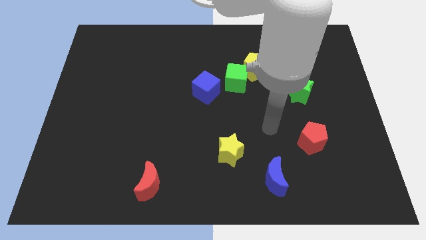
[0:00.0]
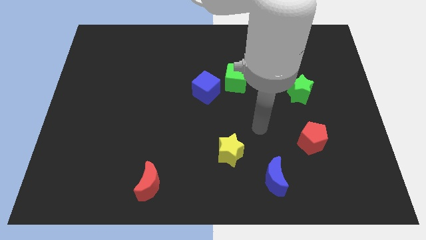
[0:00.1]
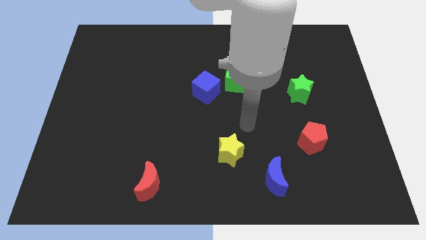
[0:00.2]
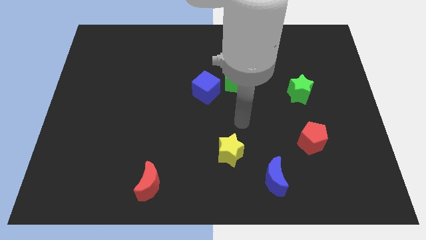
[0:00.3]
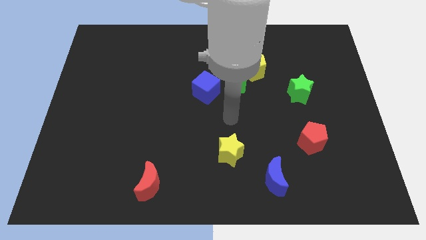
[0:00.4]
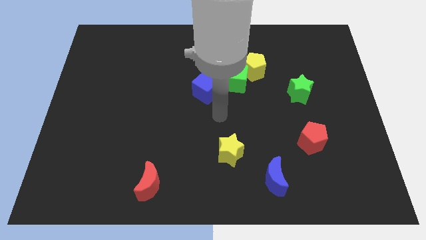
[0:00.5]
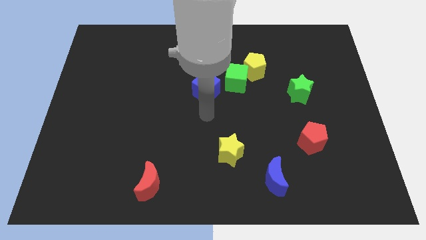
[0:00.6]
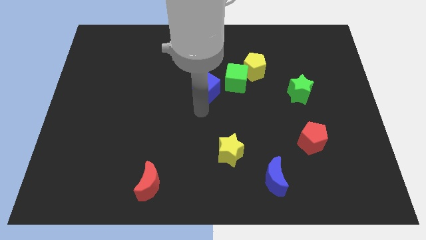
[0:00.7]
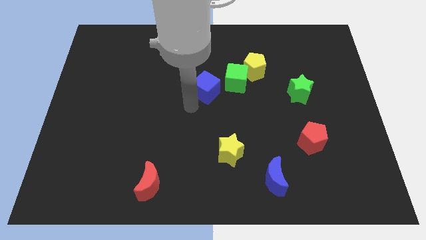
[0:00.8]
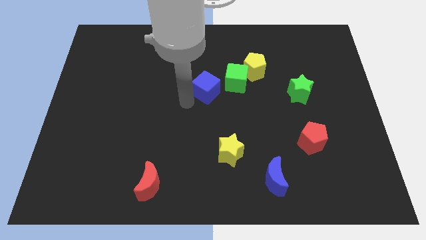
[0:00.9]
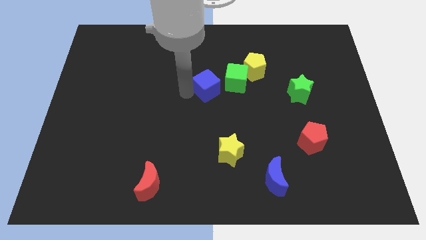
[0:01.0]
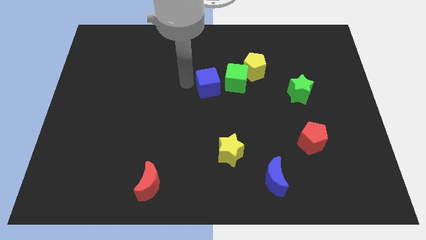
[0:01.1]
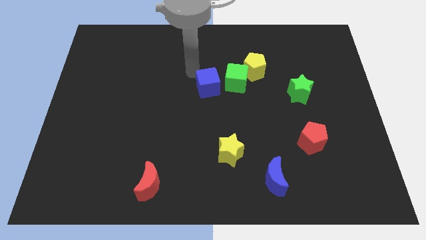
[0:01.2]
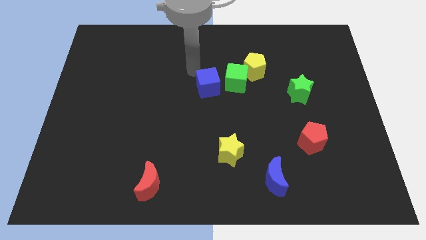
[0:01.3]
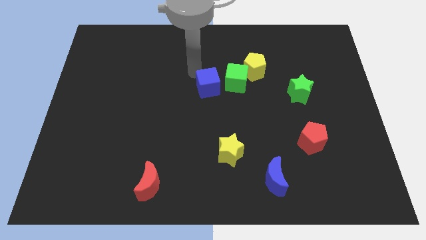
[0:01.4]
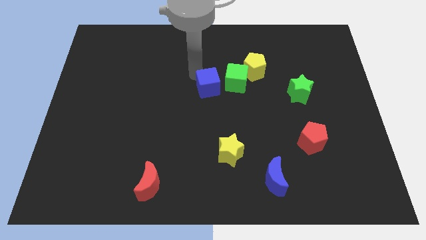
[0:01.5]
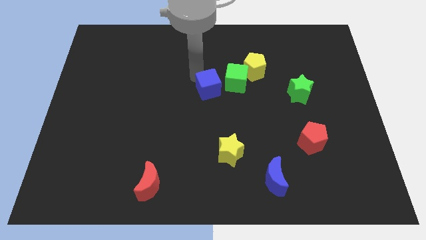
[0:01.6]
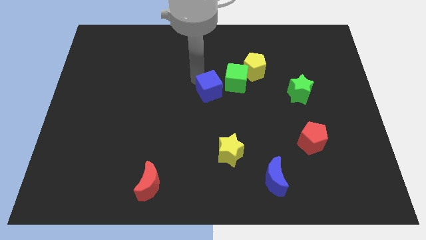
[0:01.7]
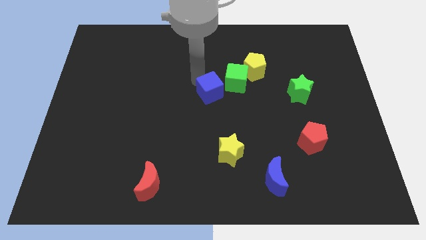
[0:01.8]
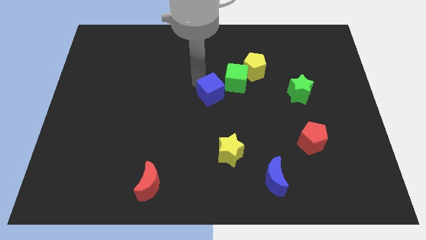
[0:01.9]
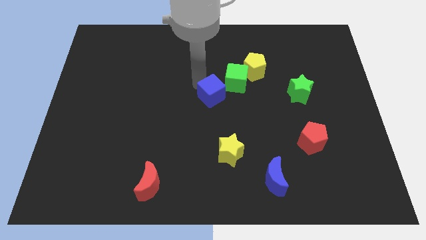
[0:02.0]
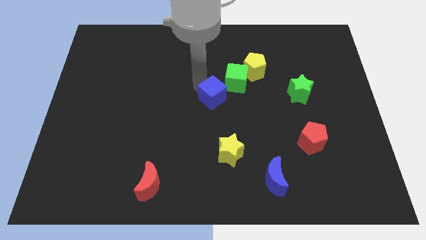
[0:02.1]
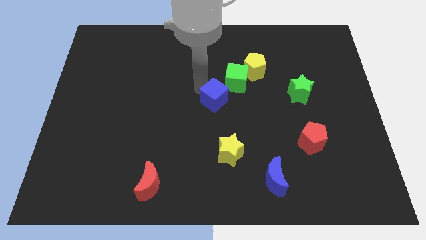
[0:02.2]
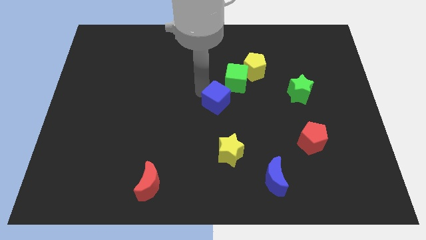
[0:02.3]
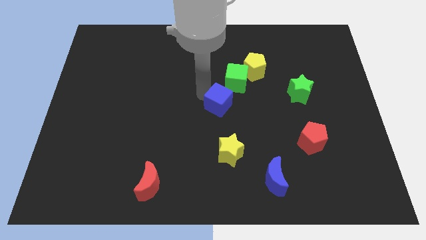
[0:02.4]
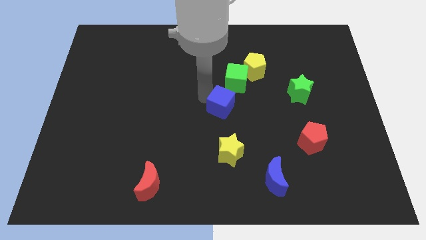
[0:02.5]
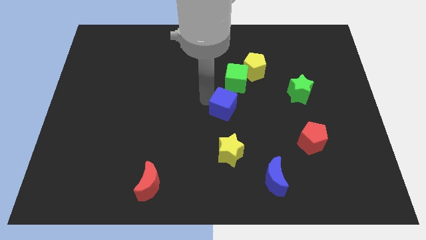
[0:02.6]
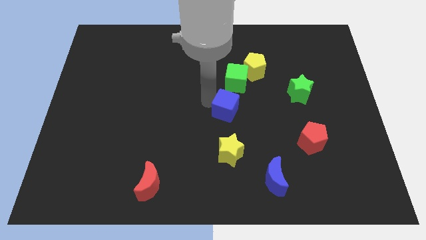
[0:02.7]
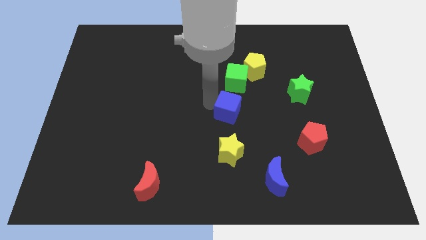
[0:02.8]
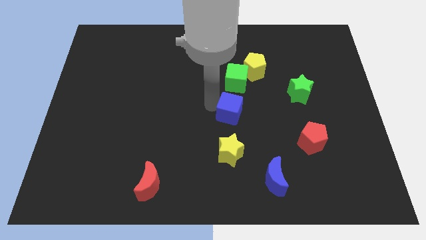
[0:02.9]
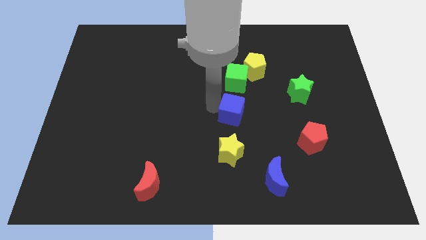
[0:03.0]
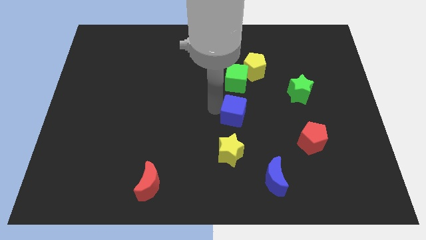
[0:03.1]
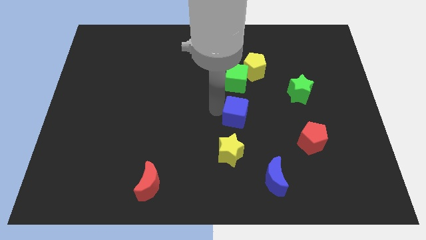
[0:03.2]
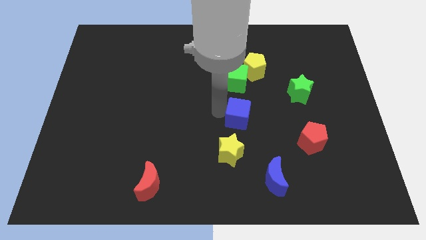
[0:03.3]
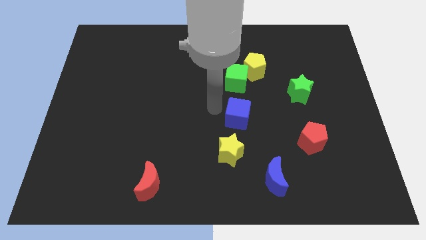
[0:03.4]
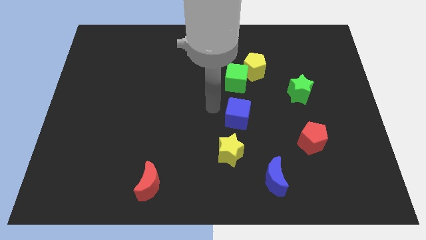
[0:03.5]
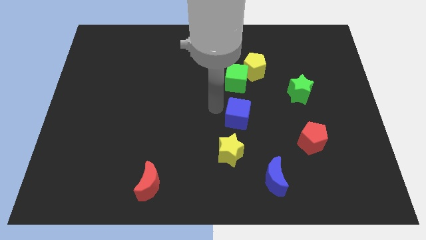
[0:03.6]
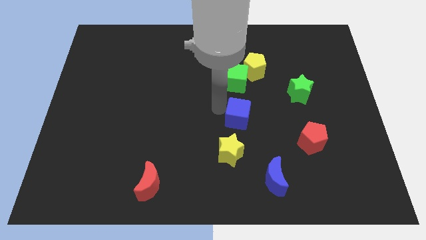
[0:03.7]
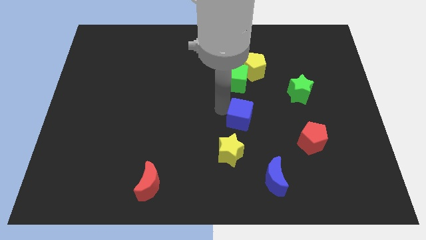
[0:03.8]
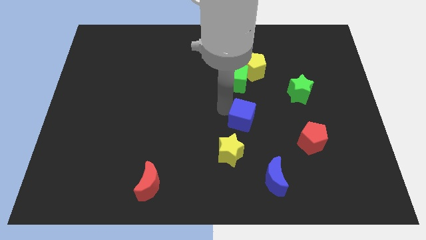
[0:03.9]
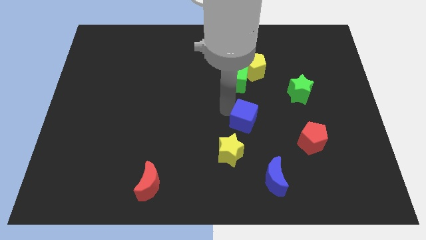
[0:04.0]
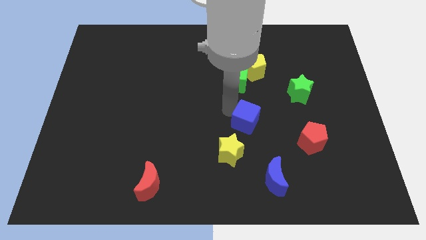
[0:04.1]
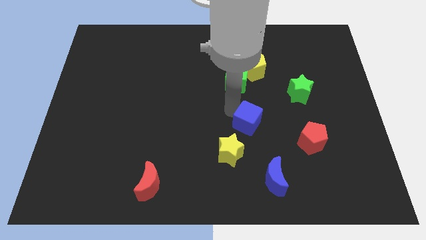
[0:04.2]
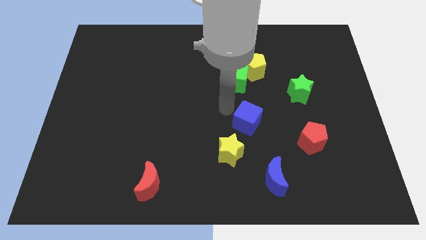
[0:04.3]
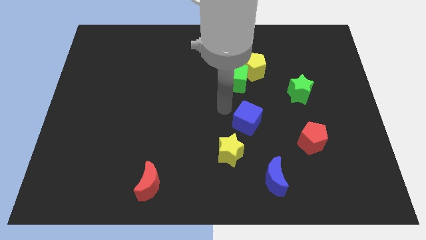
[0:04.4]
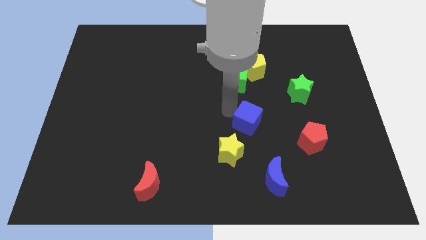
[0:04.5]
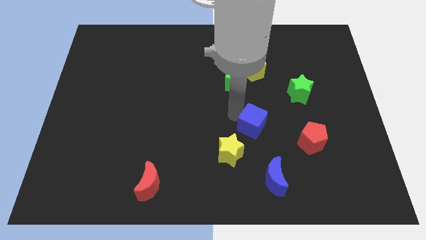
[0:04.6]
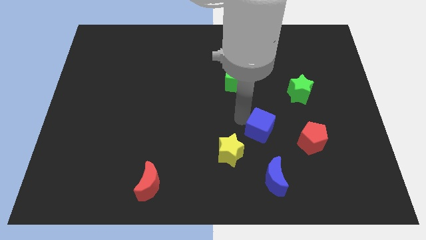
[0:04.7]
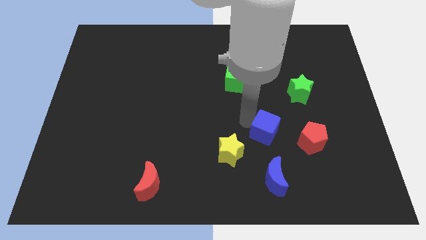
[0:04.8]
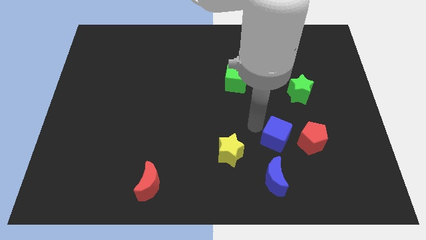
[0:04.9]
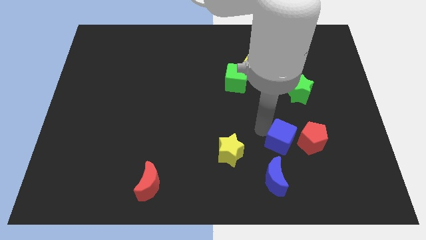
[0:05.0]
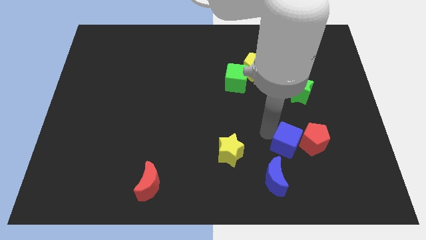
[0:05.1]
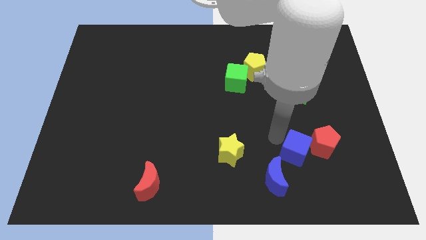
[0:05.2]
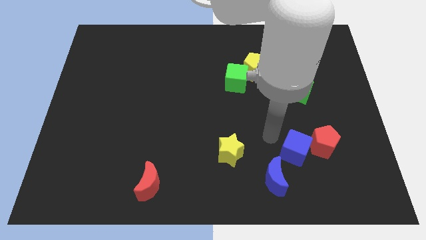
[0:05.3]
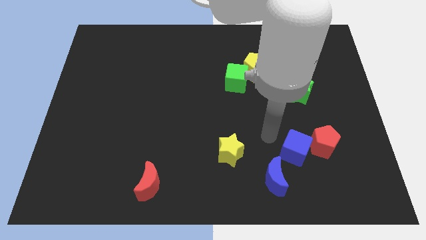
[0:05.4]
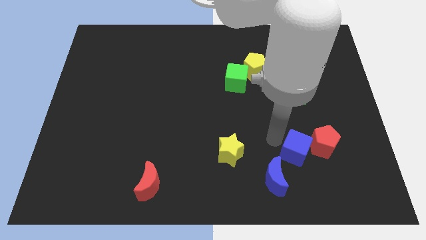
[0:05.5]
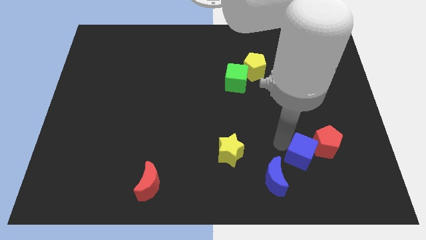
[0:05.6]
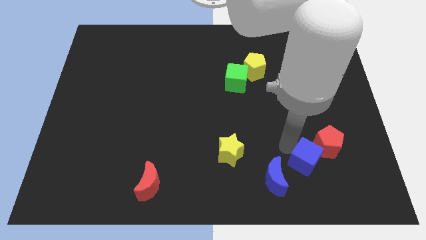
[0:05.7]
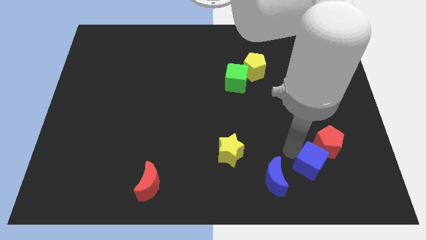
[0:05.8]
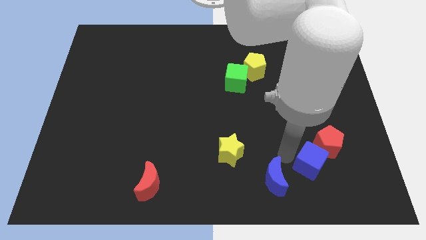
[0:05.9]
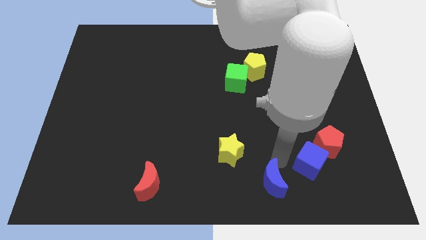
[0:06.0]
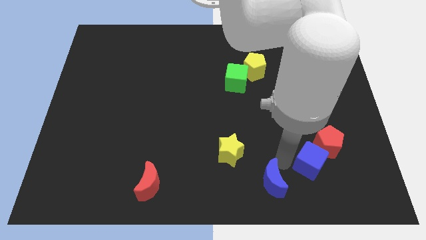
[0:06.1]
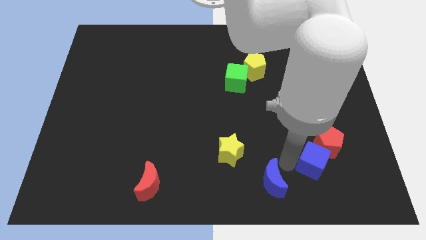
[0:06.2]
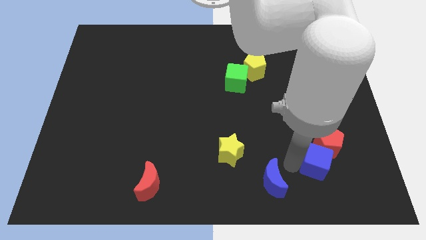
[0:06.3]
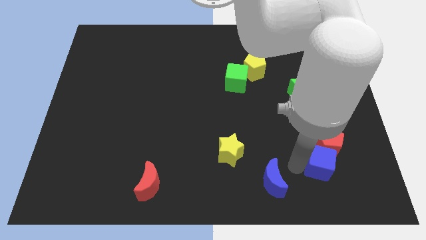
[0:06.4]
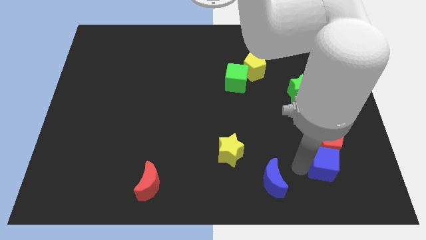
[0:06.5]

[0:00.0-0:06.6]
slide the blue cube diagonally down and to the right of the red pentagon

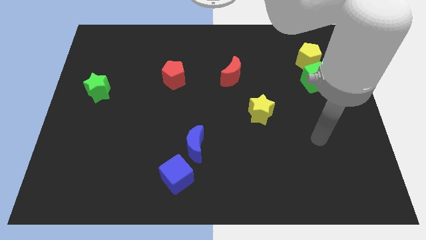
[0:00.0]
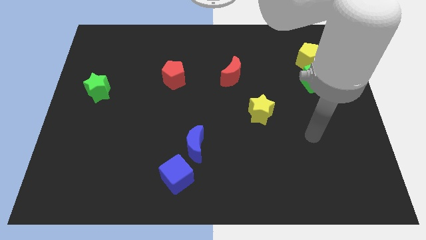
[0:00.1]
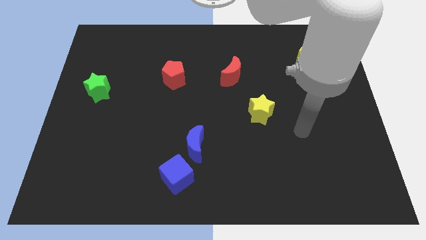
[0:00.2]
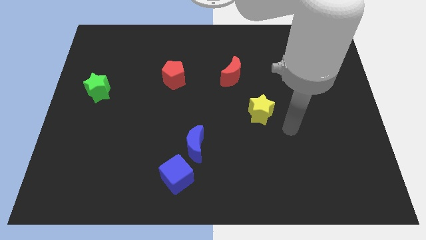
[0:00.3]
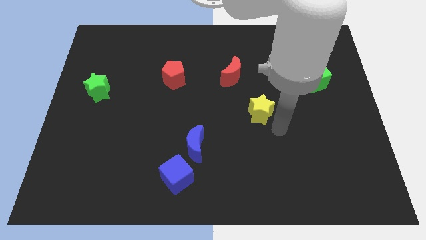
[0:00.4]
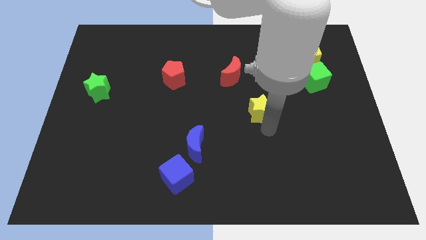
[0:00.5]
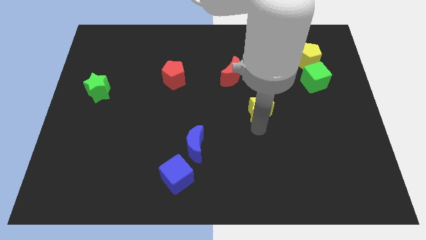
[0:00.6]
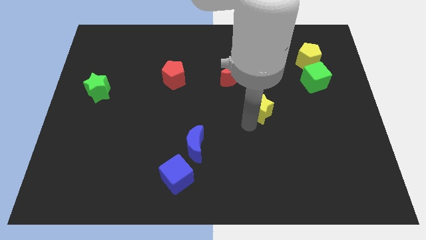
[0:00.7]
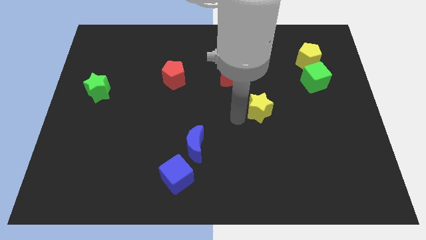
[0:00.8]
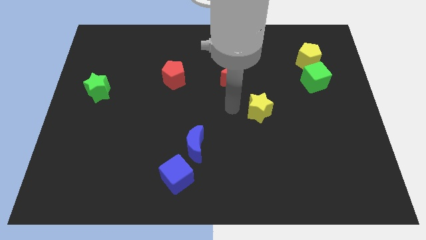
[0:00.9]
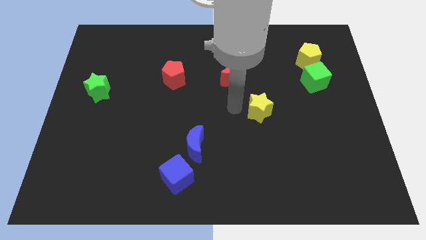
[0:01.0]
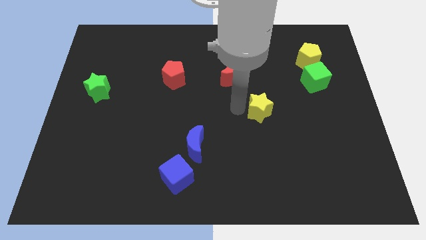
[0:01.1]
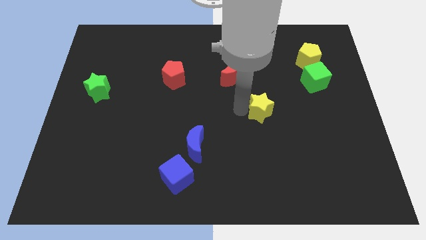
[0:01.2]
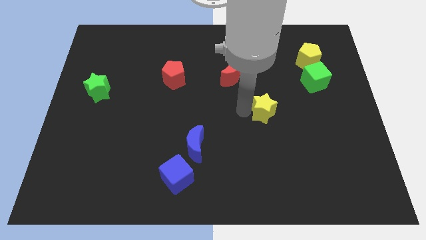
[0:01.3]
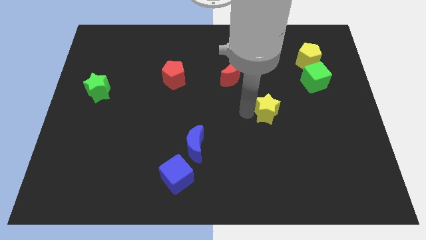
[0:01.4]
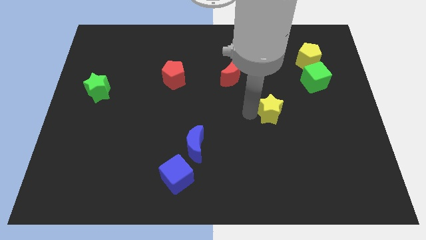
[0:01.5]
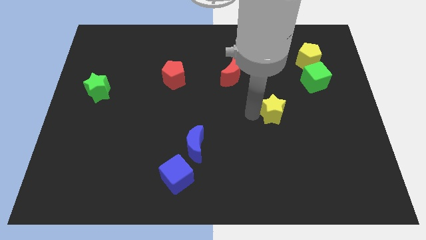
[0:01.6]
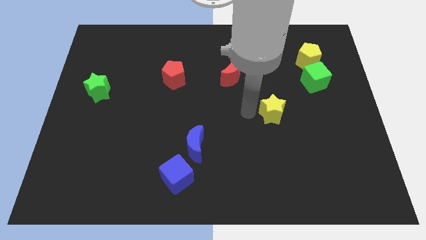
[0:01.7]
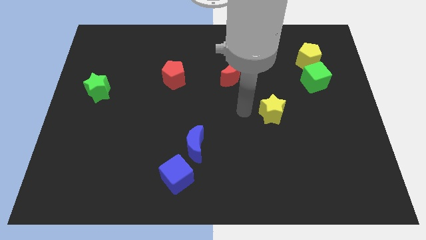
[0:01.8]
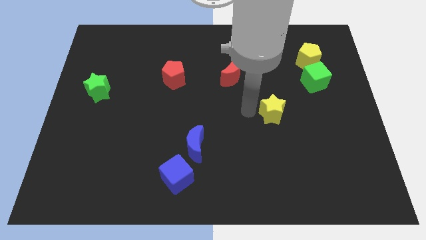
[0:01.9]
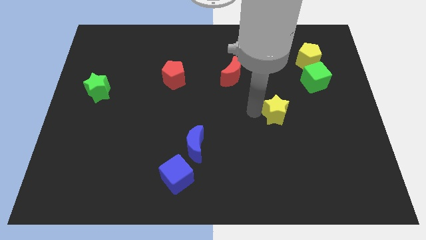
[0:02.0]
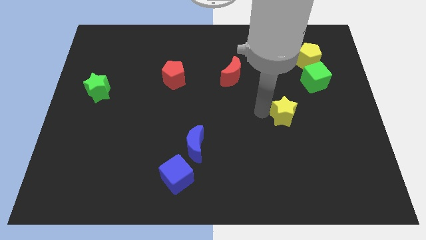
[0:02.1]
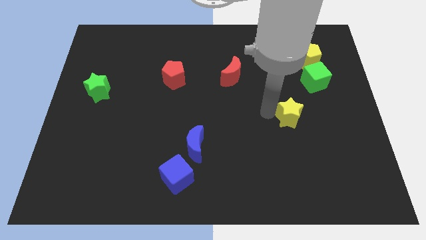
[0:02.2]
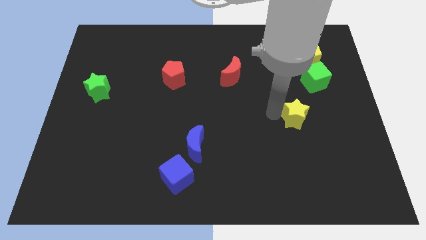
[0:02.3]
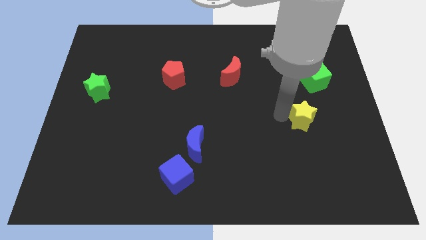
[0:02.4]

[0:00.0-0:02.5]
move the yellow star below the green cube
